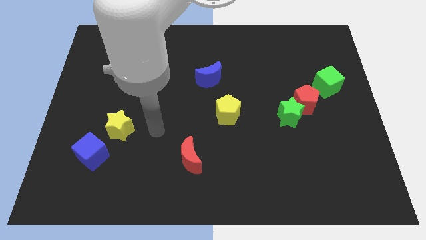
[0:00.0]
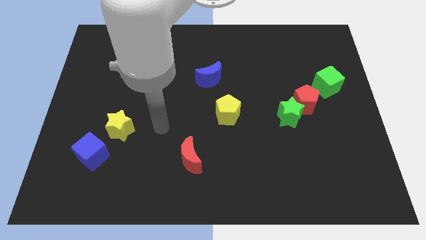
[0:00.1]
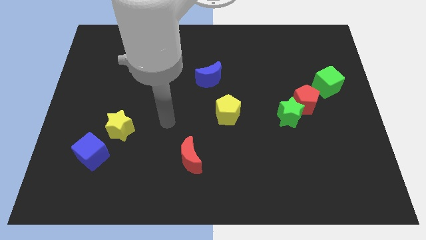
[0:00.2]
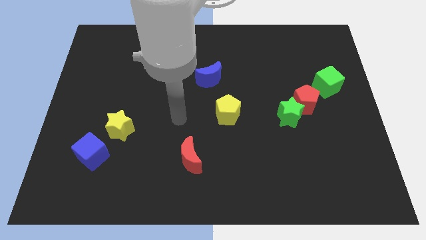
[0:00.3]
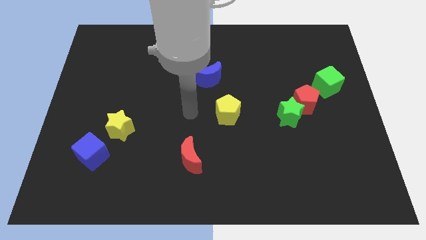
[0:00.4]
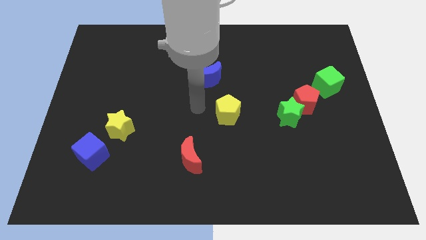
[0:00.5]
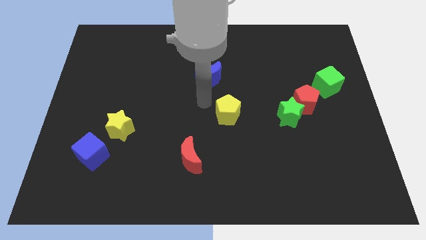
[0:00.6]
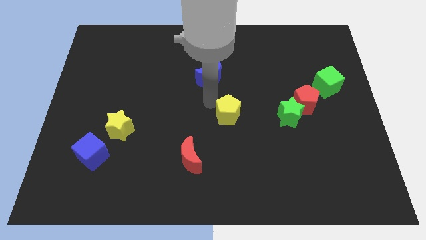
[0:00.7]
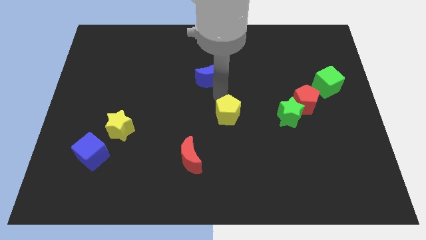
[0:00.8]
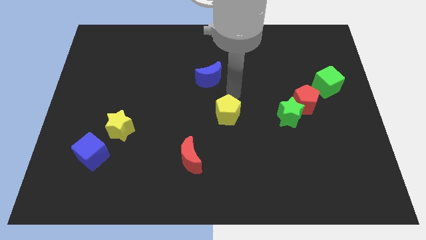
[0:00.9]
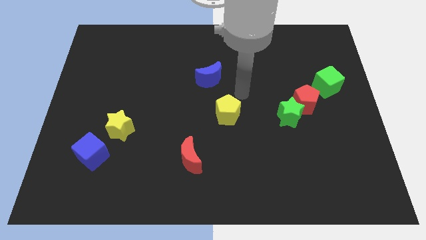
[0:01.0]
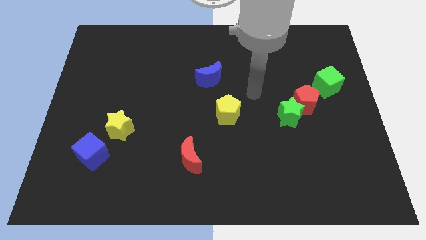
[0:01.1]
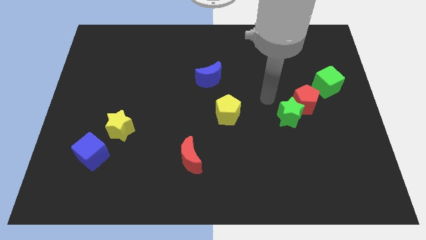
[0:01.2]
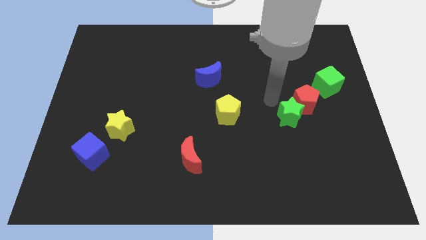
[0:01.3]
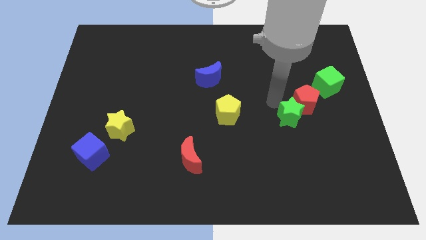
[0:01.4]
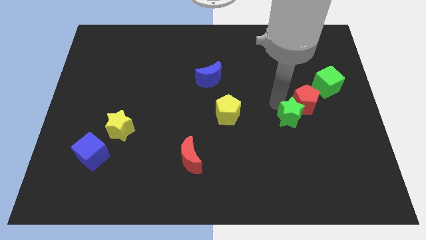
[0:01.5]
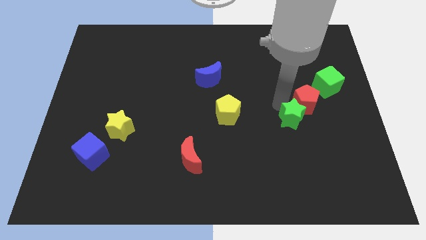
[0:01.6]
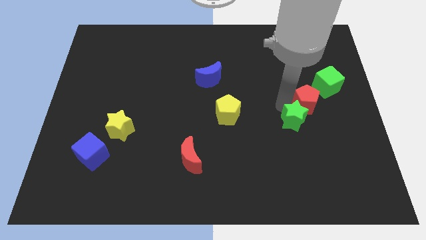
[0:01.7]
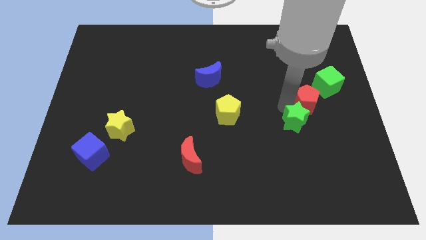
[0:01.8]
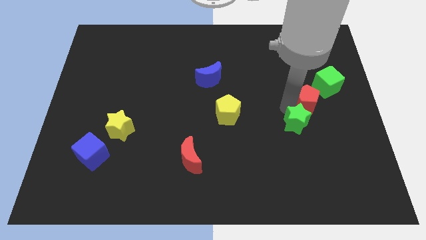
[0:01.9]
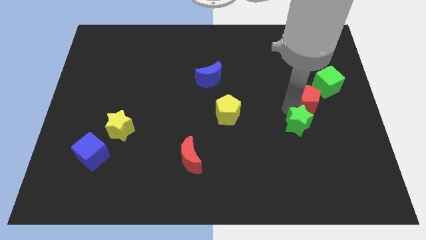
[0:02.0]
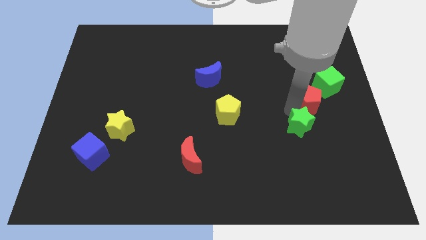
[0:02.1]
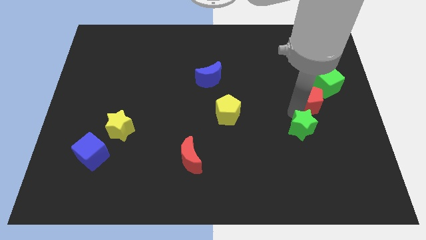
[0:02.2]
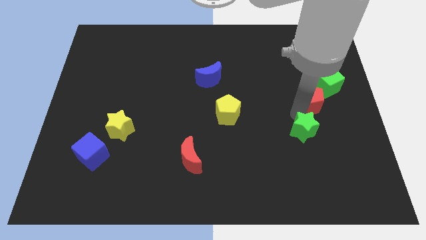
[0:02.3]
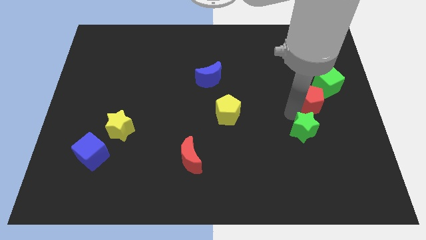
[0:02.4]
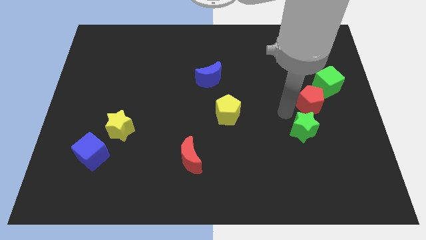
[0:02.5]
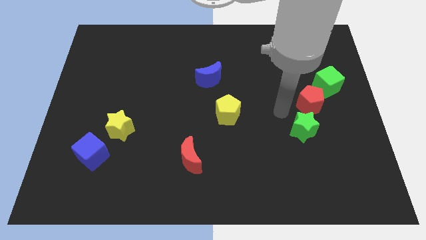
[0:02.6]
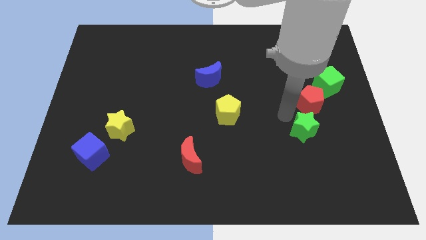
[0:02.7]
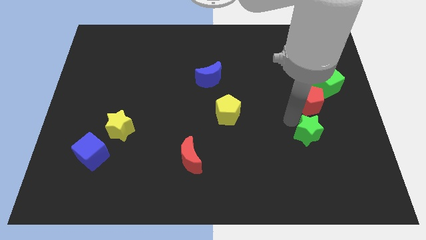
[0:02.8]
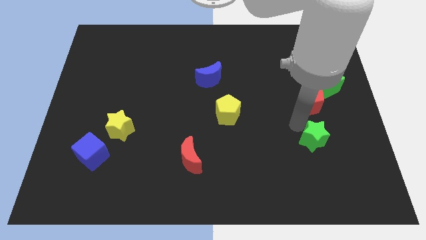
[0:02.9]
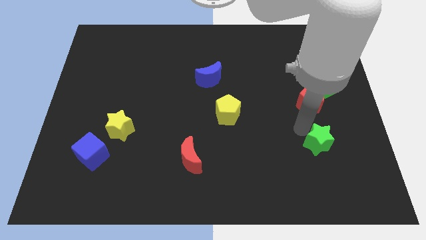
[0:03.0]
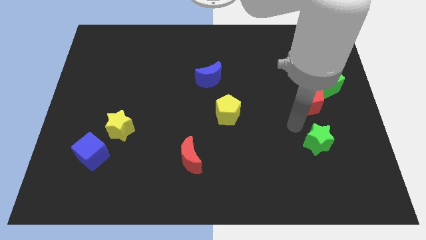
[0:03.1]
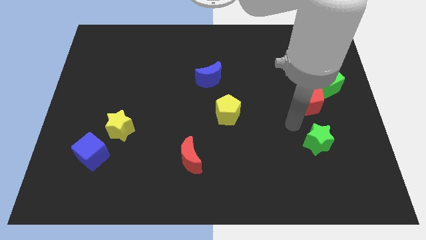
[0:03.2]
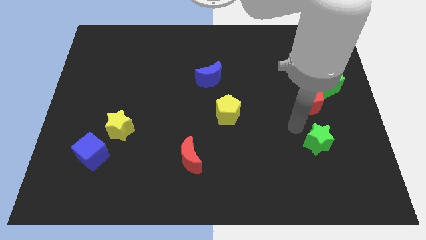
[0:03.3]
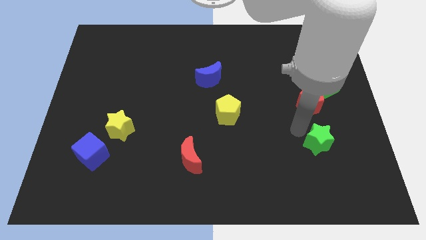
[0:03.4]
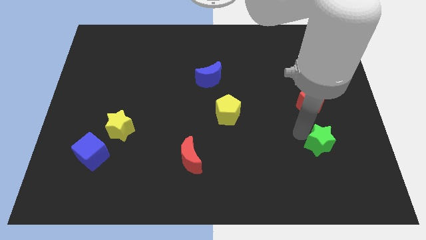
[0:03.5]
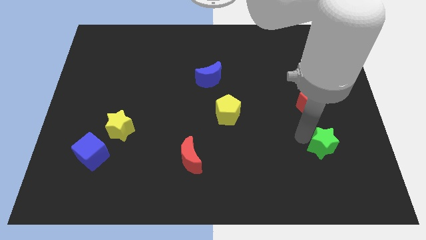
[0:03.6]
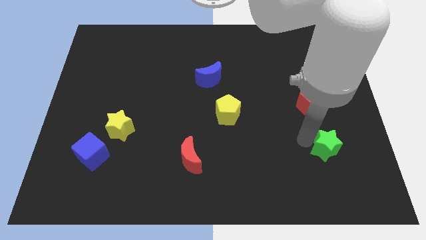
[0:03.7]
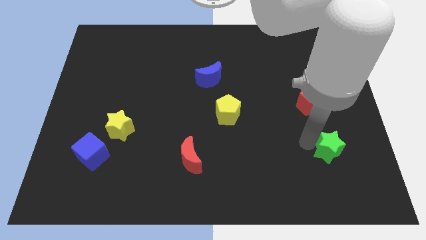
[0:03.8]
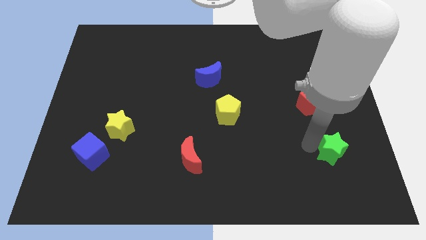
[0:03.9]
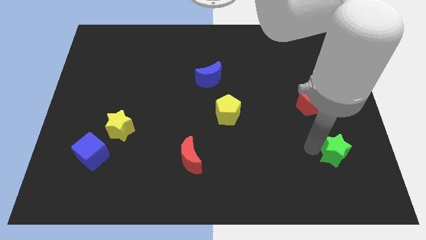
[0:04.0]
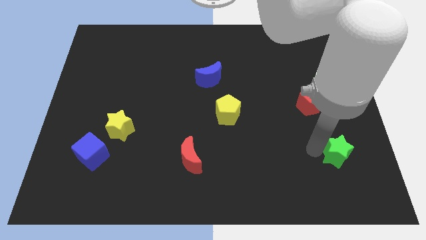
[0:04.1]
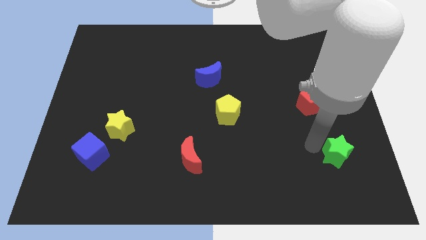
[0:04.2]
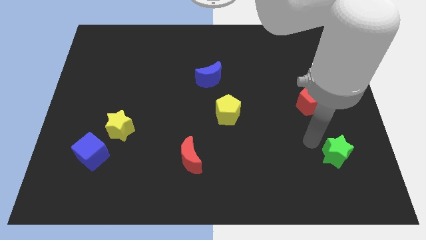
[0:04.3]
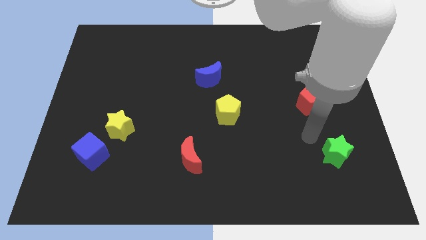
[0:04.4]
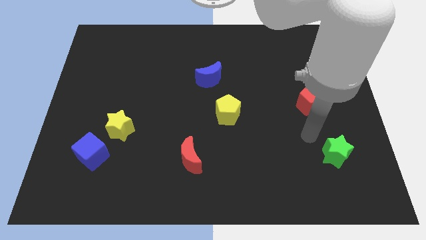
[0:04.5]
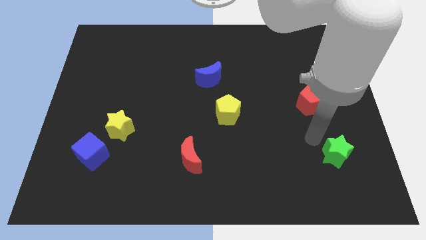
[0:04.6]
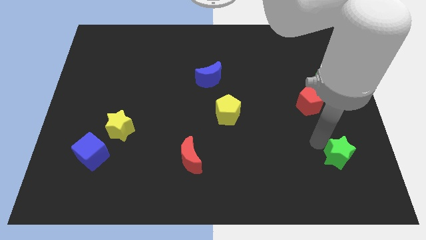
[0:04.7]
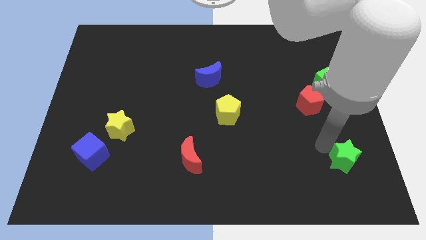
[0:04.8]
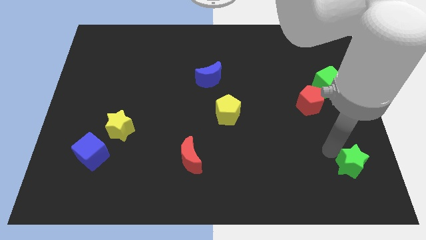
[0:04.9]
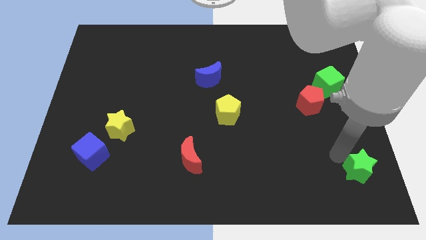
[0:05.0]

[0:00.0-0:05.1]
move the green star to the bottom right corner

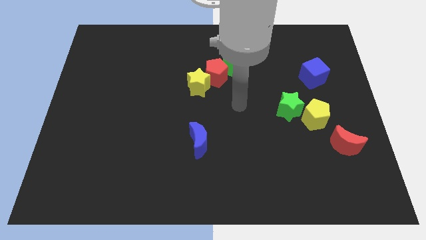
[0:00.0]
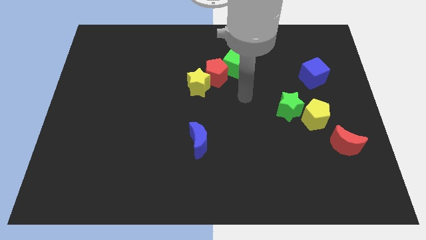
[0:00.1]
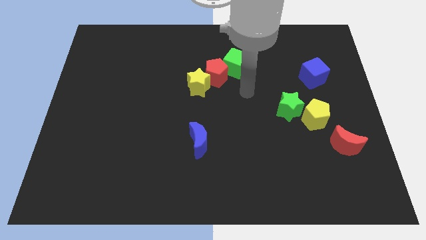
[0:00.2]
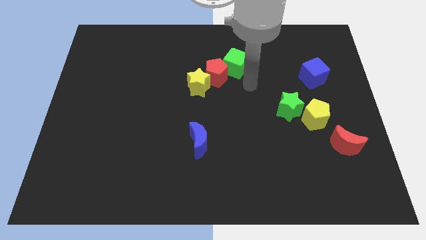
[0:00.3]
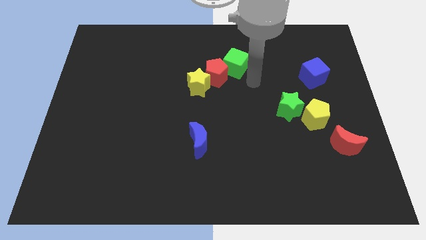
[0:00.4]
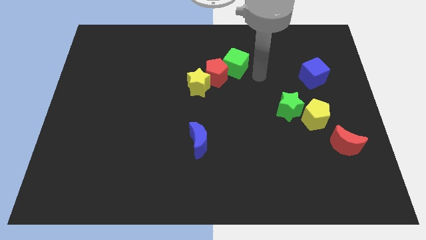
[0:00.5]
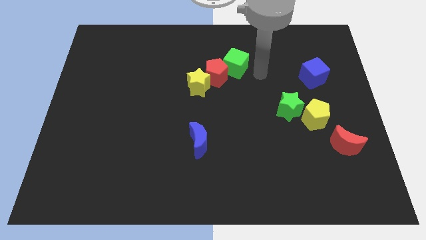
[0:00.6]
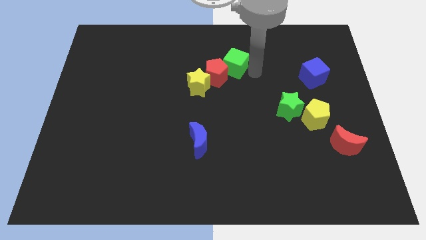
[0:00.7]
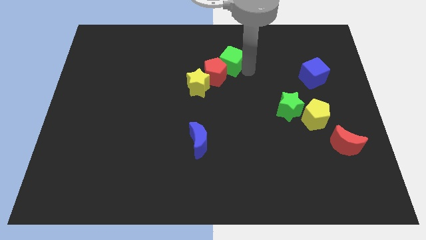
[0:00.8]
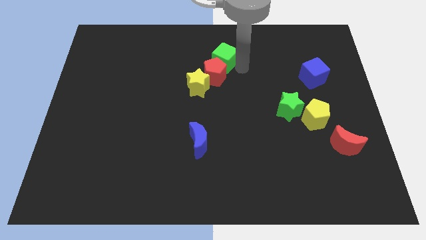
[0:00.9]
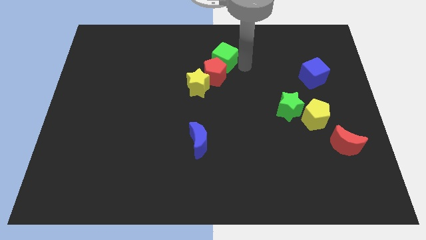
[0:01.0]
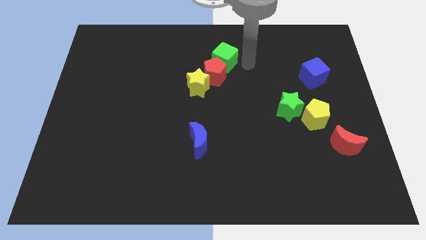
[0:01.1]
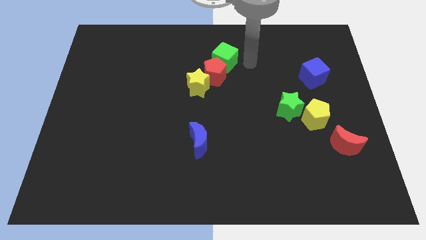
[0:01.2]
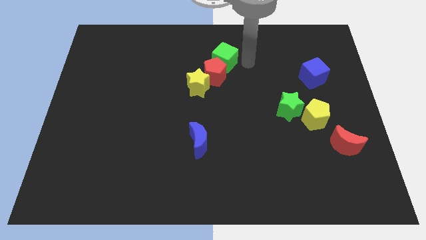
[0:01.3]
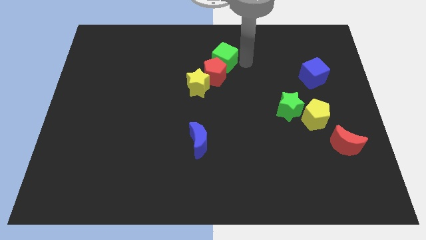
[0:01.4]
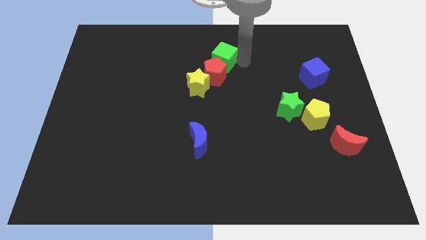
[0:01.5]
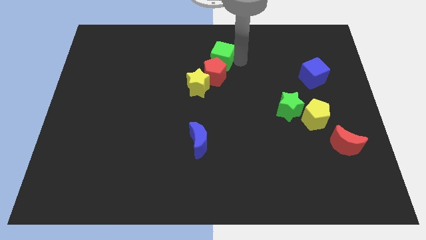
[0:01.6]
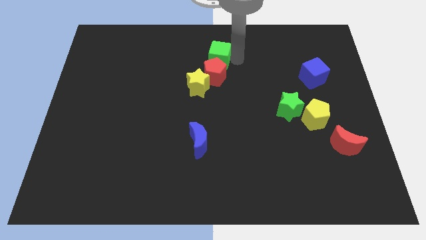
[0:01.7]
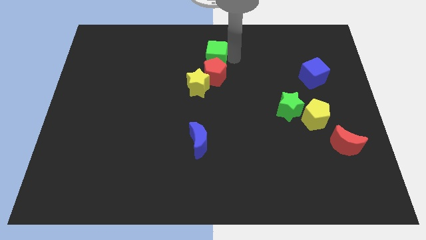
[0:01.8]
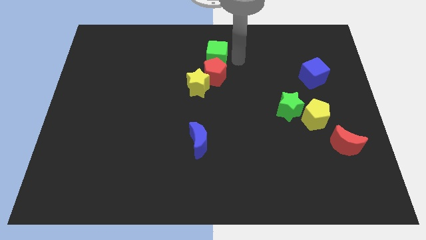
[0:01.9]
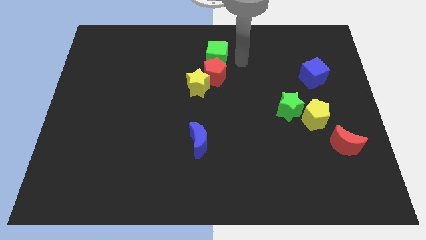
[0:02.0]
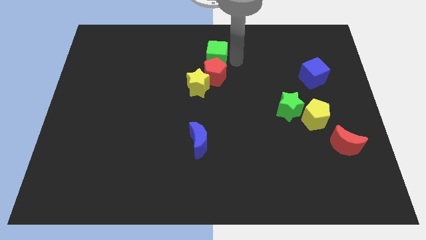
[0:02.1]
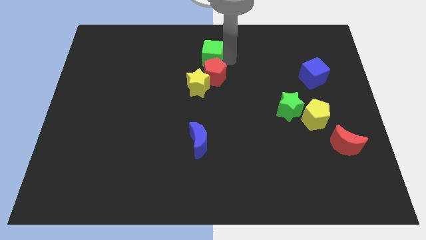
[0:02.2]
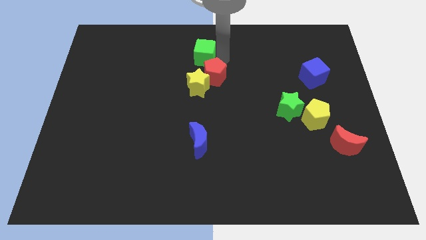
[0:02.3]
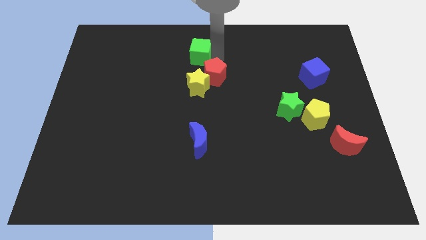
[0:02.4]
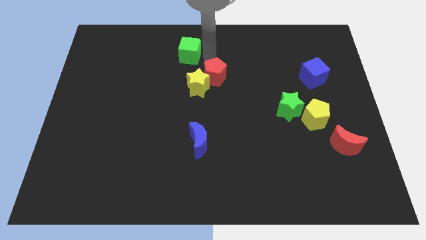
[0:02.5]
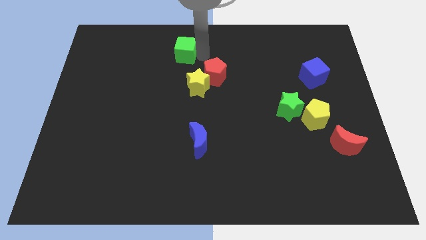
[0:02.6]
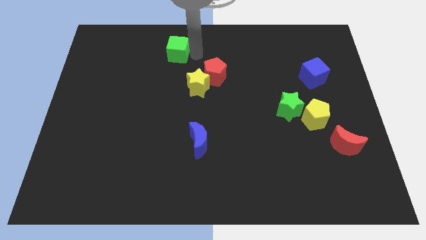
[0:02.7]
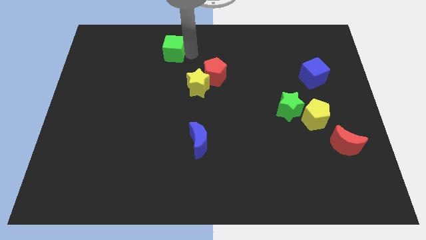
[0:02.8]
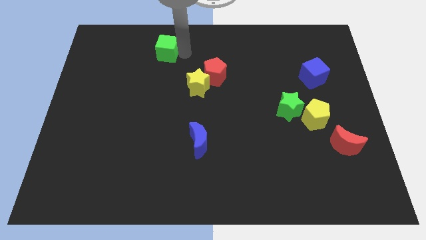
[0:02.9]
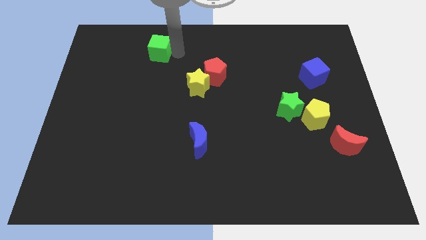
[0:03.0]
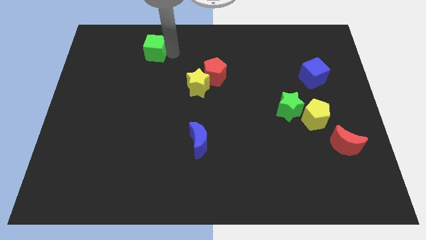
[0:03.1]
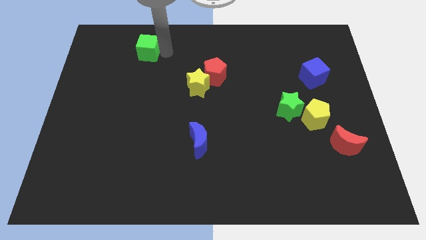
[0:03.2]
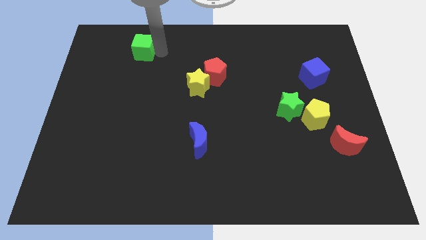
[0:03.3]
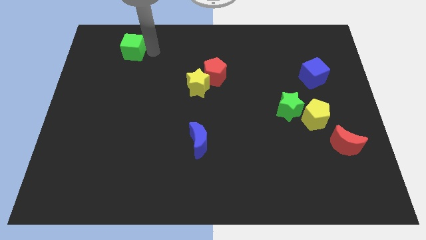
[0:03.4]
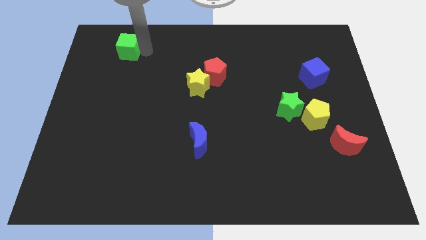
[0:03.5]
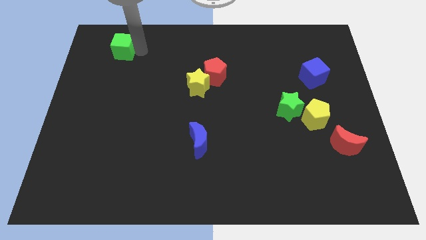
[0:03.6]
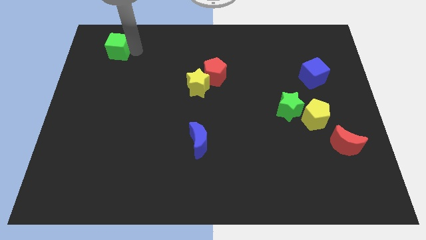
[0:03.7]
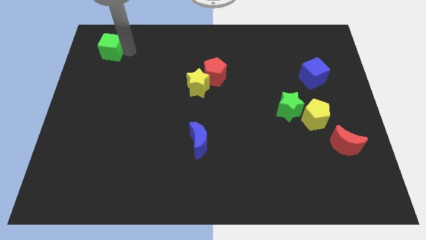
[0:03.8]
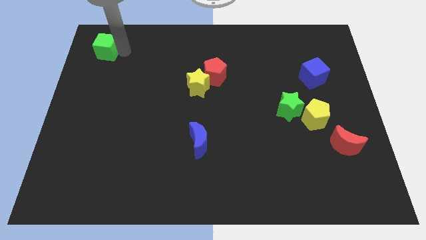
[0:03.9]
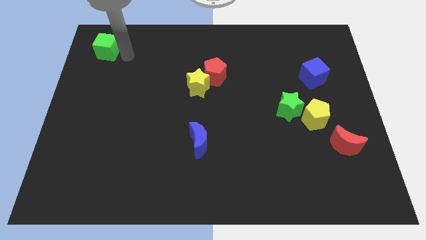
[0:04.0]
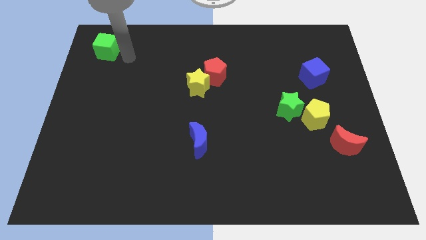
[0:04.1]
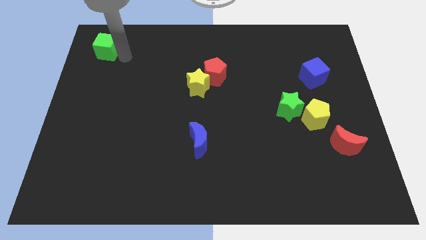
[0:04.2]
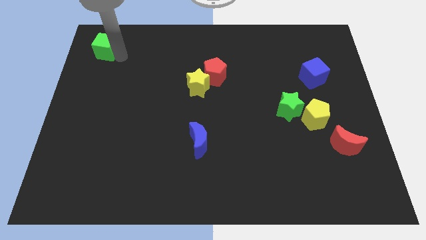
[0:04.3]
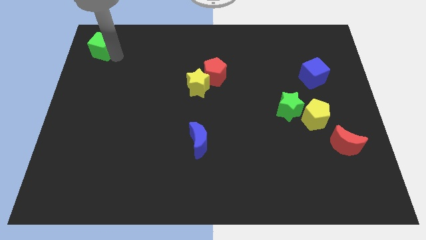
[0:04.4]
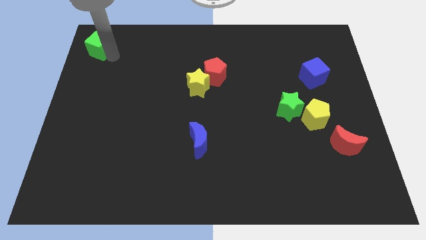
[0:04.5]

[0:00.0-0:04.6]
put the green cube to the top left corner
